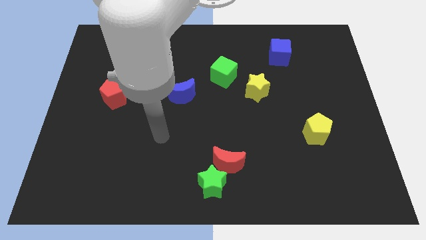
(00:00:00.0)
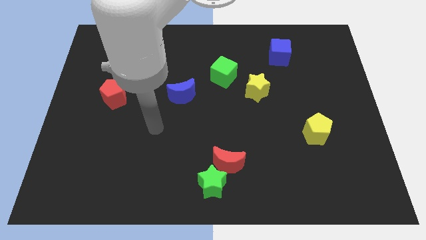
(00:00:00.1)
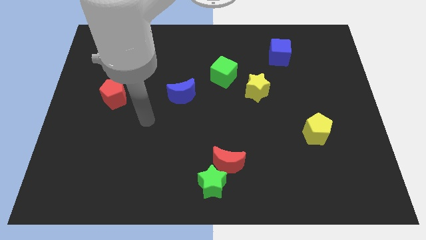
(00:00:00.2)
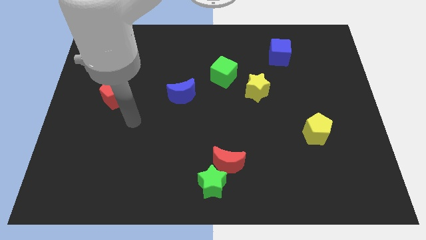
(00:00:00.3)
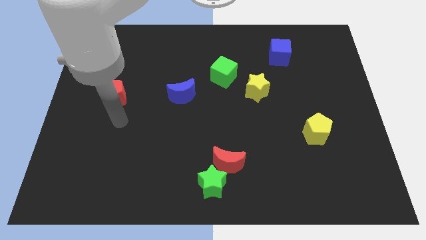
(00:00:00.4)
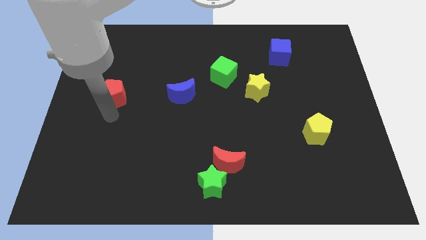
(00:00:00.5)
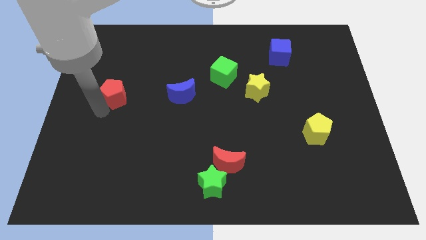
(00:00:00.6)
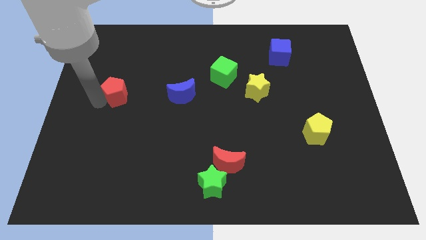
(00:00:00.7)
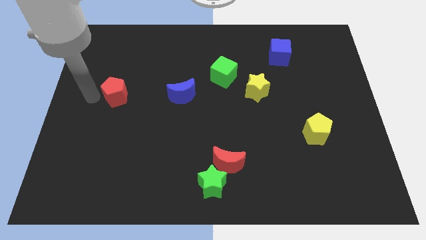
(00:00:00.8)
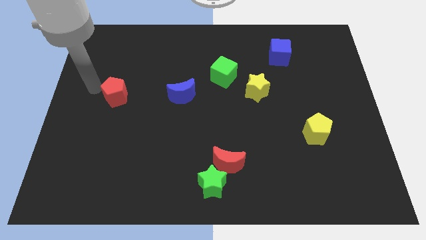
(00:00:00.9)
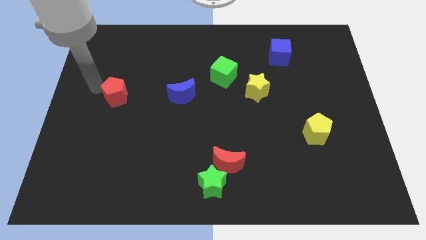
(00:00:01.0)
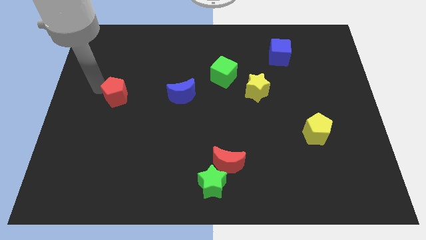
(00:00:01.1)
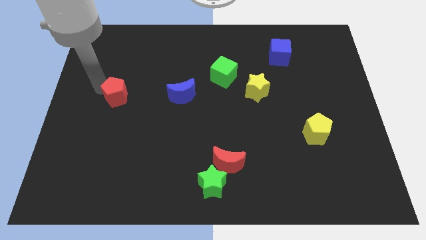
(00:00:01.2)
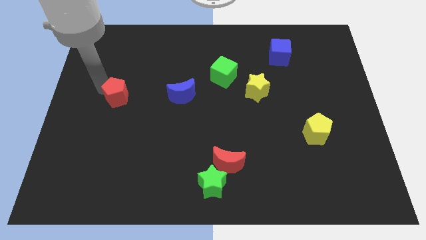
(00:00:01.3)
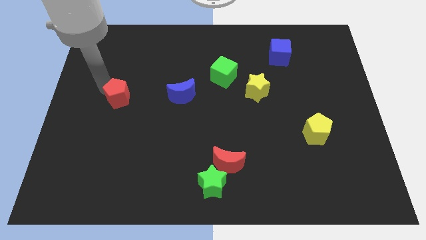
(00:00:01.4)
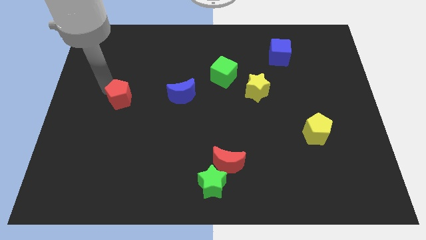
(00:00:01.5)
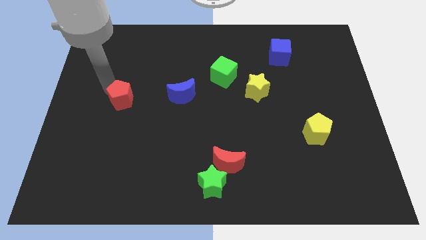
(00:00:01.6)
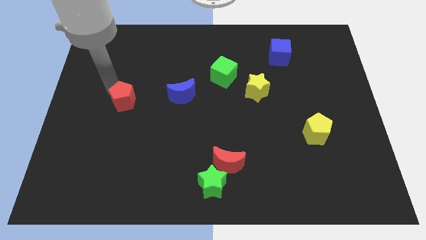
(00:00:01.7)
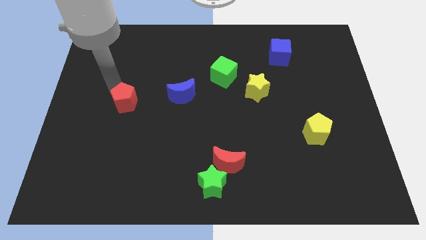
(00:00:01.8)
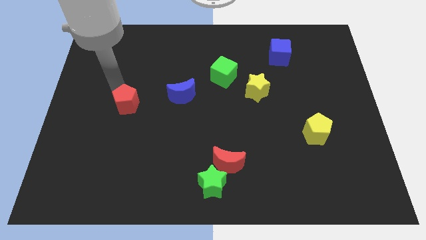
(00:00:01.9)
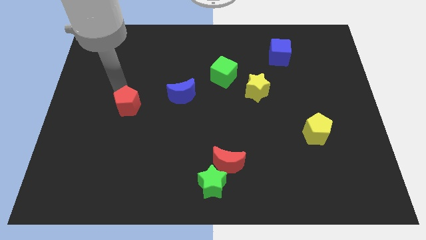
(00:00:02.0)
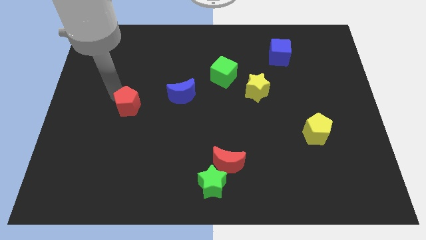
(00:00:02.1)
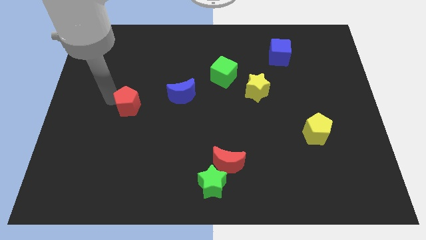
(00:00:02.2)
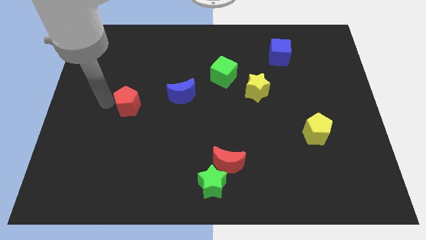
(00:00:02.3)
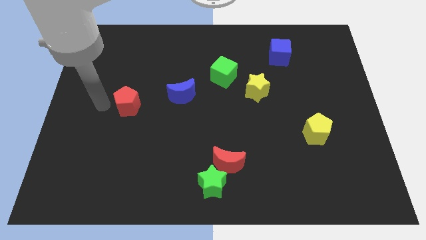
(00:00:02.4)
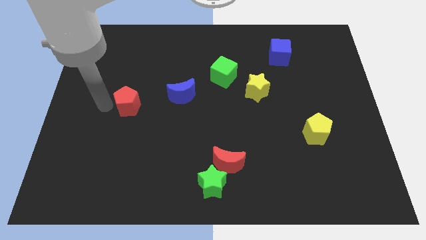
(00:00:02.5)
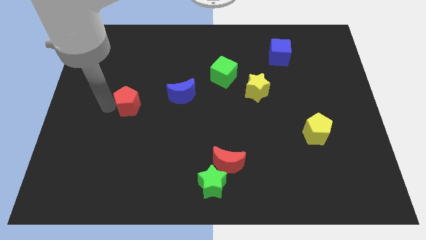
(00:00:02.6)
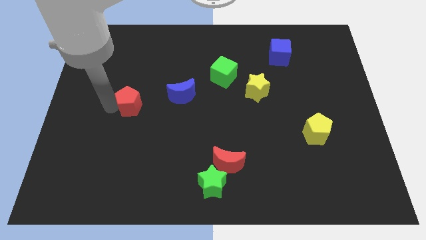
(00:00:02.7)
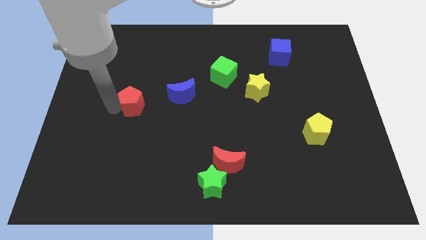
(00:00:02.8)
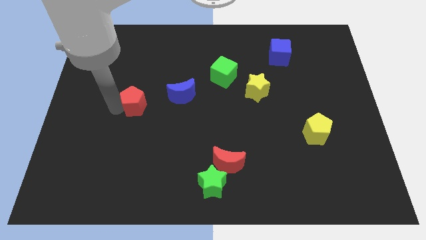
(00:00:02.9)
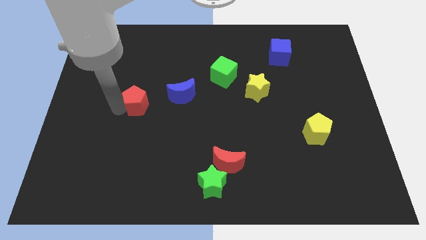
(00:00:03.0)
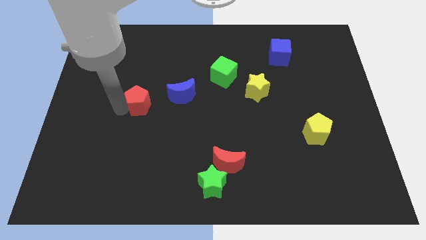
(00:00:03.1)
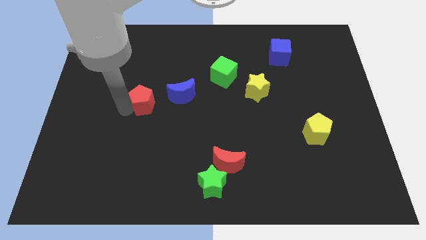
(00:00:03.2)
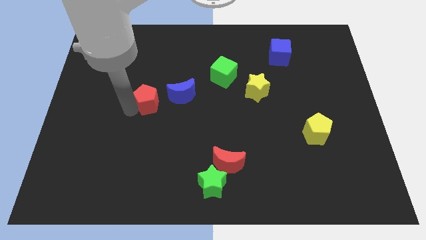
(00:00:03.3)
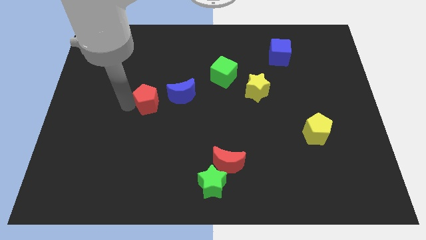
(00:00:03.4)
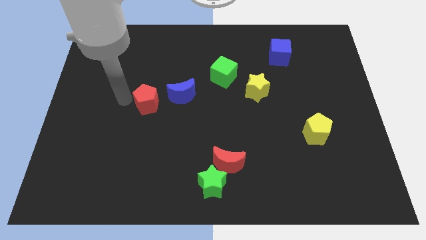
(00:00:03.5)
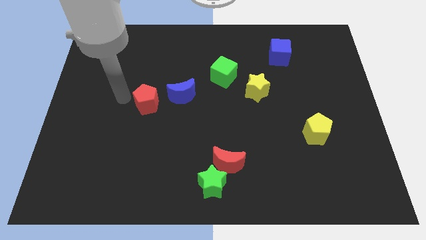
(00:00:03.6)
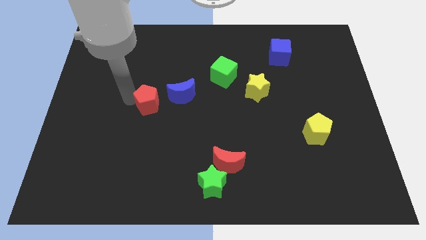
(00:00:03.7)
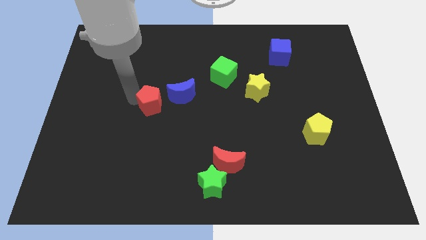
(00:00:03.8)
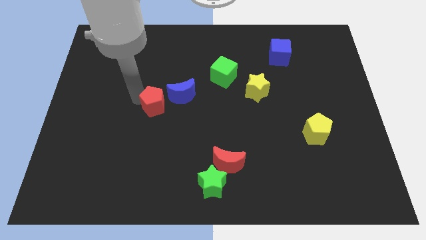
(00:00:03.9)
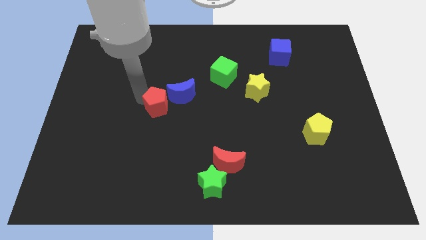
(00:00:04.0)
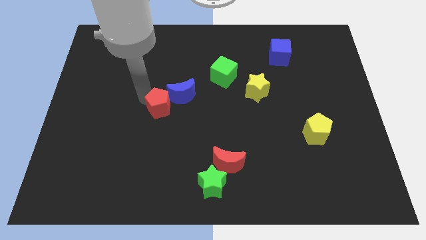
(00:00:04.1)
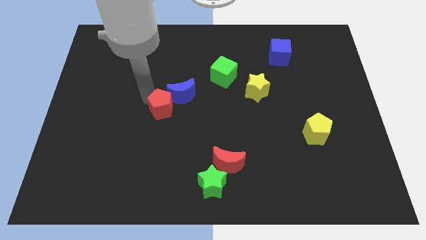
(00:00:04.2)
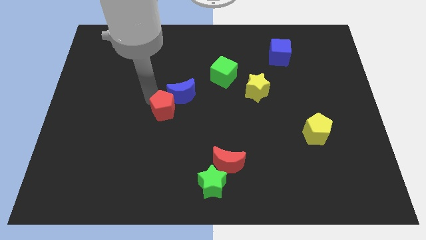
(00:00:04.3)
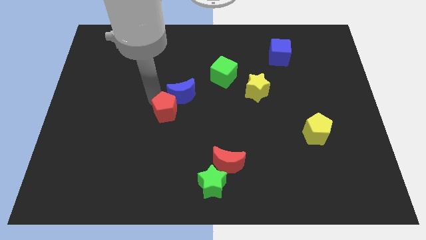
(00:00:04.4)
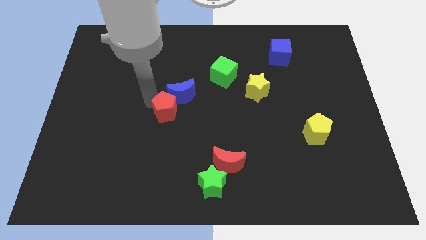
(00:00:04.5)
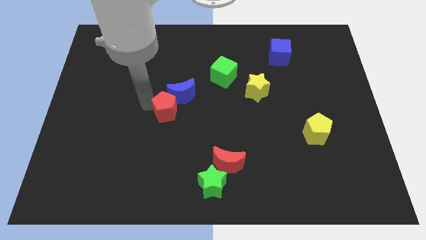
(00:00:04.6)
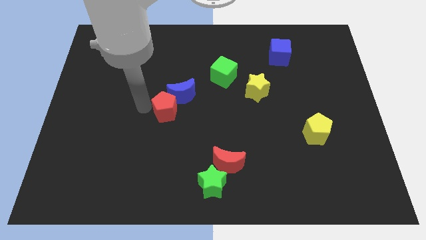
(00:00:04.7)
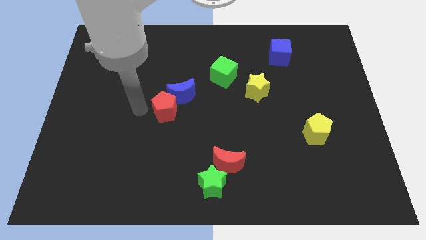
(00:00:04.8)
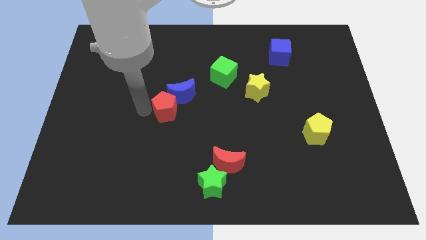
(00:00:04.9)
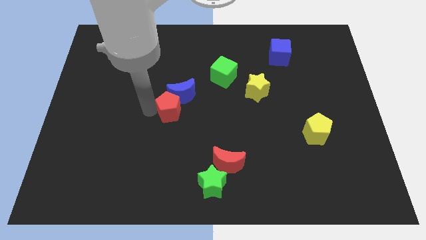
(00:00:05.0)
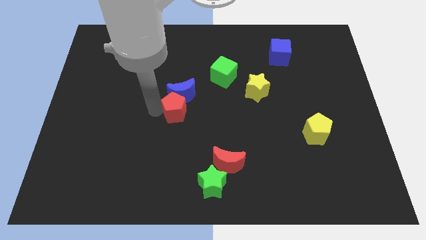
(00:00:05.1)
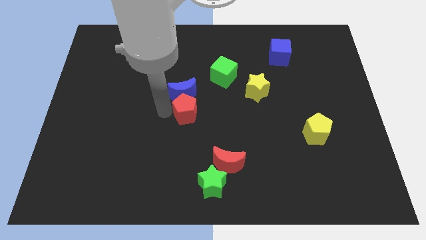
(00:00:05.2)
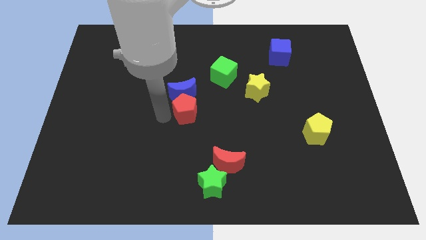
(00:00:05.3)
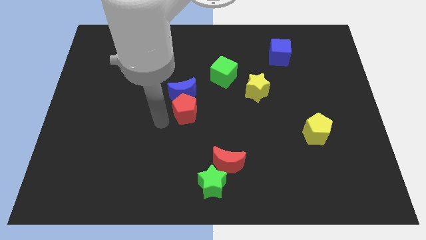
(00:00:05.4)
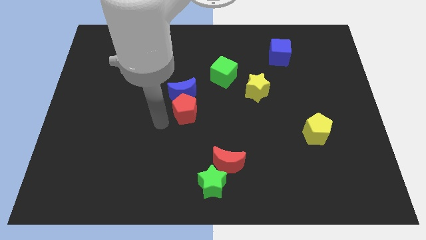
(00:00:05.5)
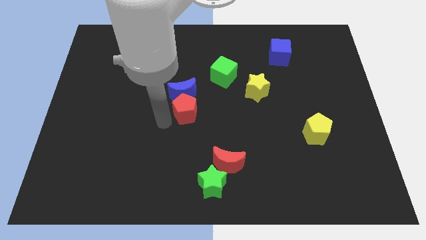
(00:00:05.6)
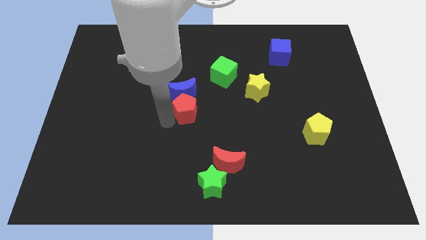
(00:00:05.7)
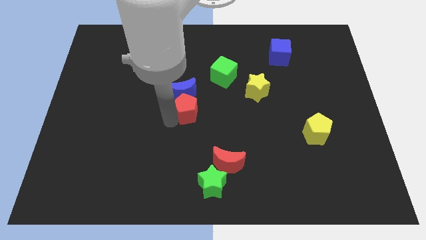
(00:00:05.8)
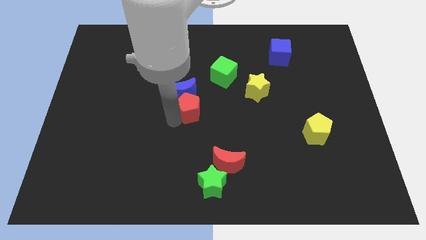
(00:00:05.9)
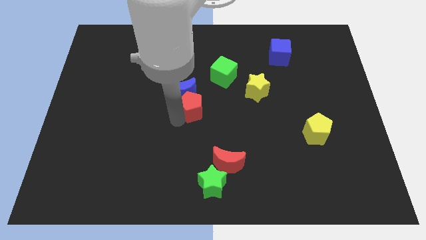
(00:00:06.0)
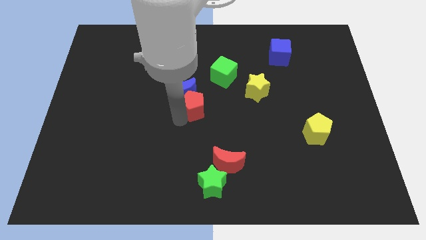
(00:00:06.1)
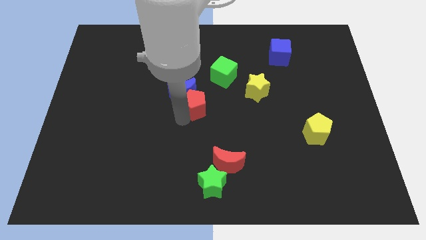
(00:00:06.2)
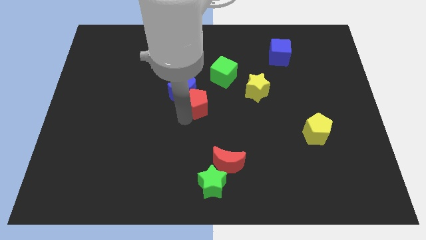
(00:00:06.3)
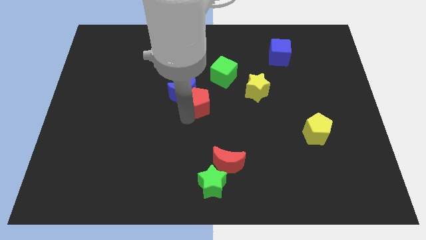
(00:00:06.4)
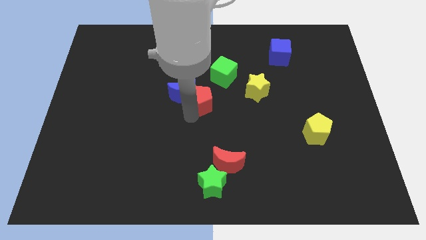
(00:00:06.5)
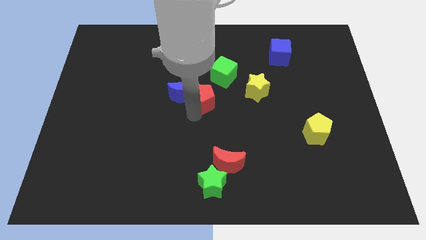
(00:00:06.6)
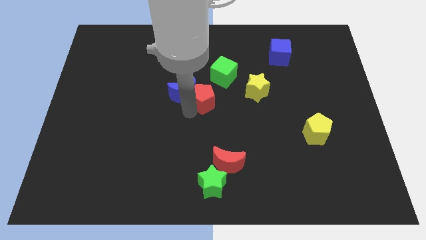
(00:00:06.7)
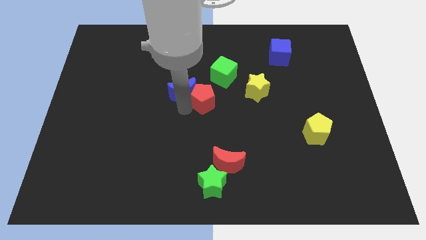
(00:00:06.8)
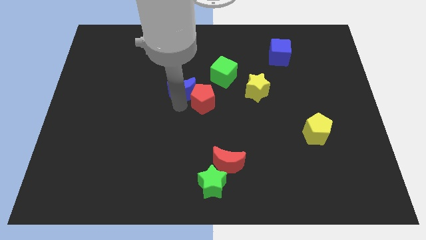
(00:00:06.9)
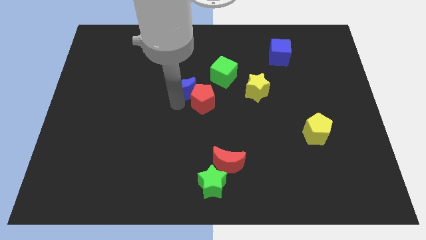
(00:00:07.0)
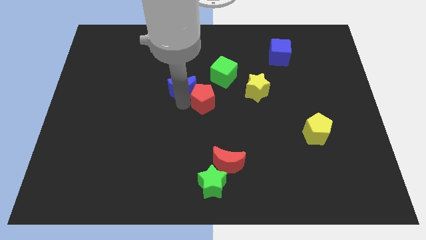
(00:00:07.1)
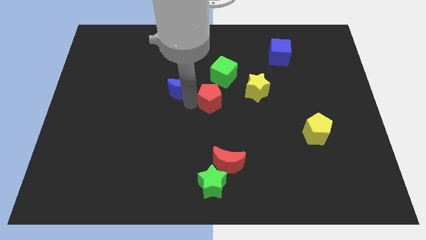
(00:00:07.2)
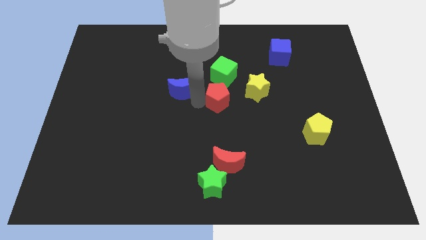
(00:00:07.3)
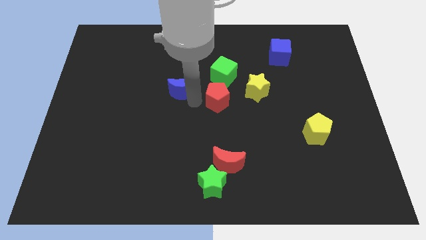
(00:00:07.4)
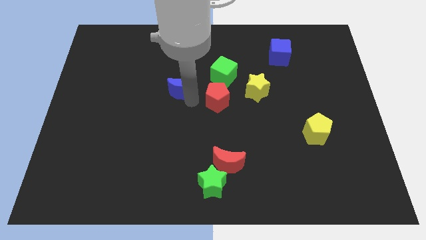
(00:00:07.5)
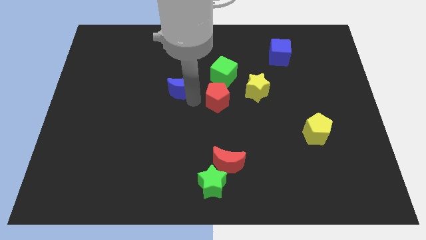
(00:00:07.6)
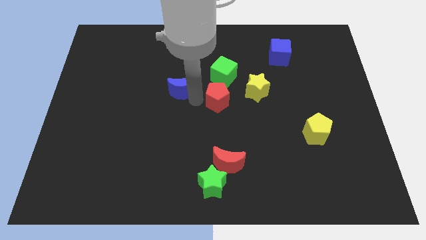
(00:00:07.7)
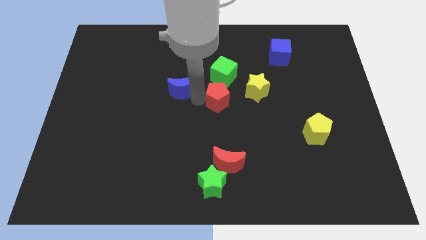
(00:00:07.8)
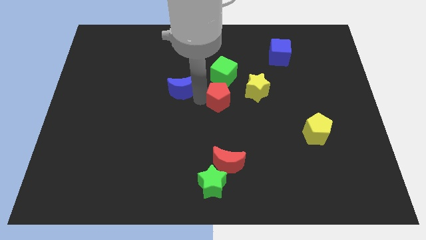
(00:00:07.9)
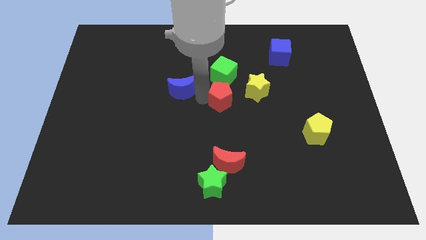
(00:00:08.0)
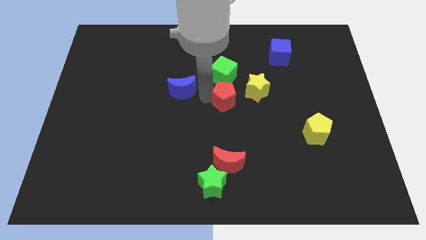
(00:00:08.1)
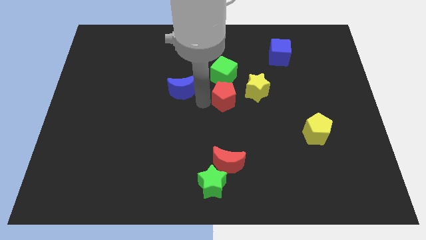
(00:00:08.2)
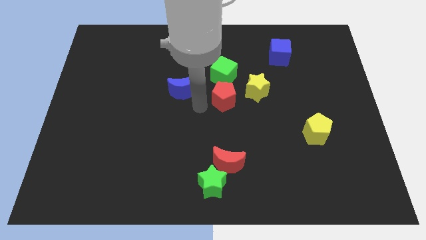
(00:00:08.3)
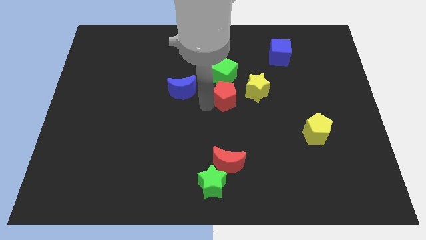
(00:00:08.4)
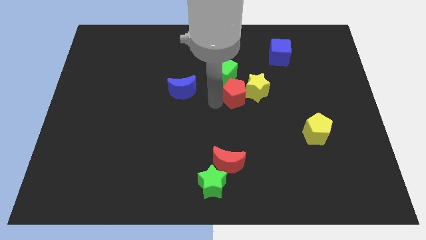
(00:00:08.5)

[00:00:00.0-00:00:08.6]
push the red pentagon to the yellow star
